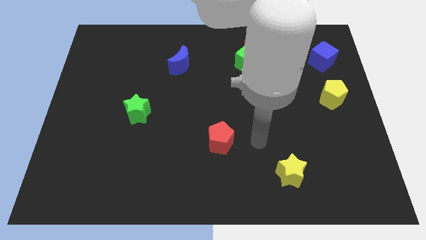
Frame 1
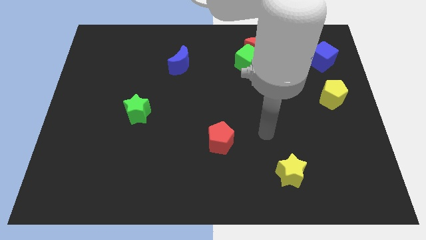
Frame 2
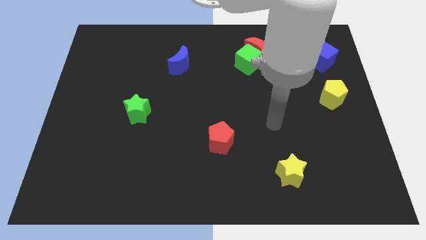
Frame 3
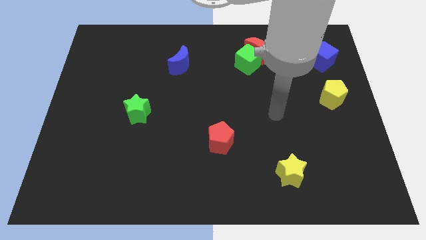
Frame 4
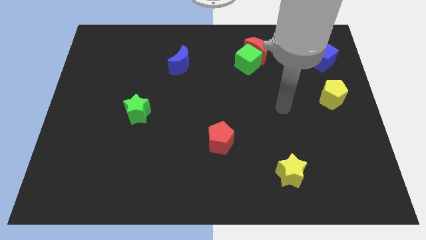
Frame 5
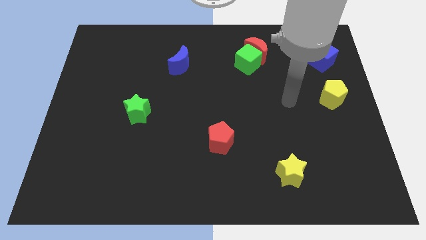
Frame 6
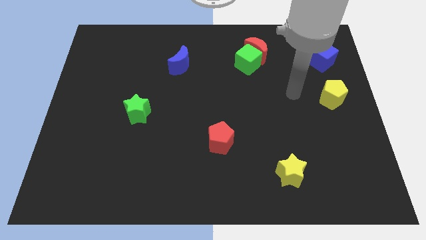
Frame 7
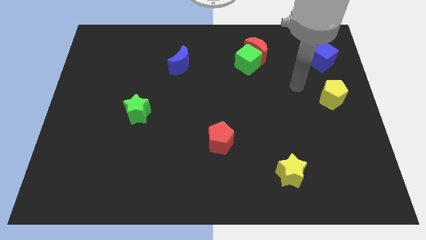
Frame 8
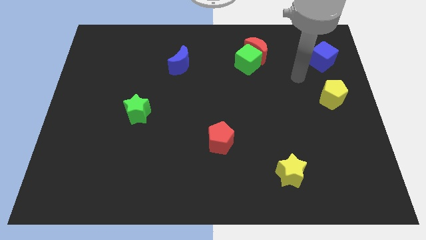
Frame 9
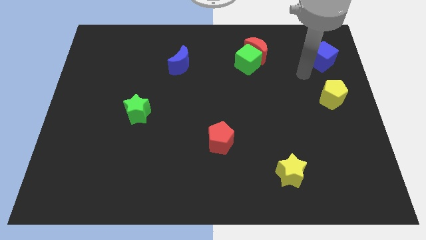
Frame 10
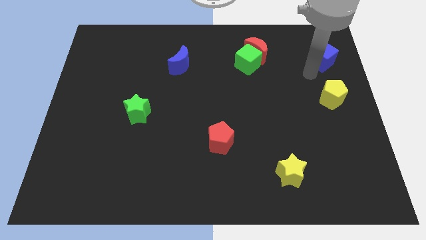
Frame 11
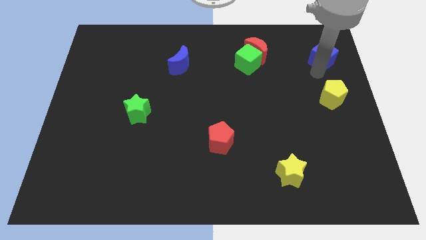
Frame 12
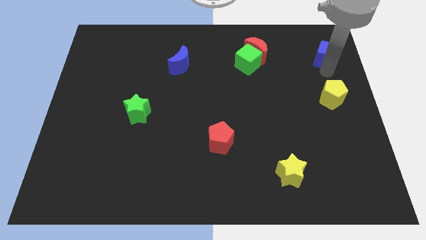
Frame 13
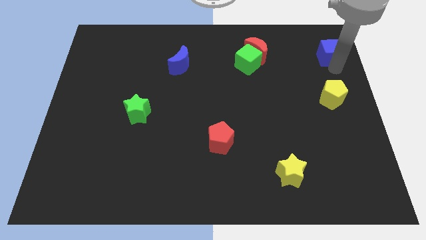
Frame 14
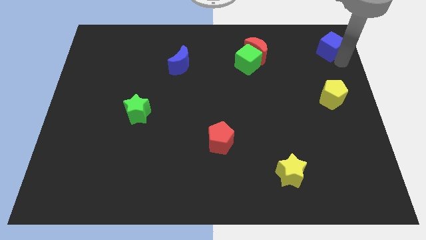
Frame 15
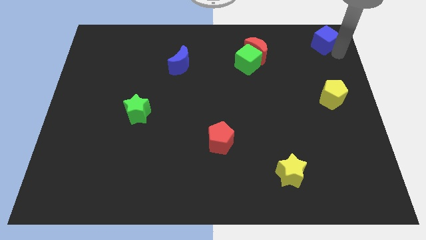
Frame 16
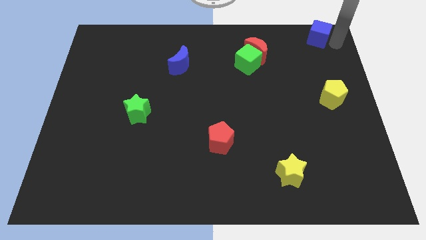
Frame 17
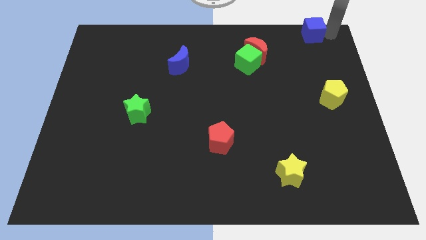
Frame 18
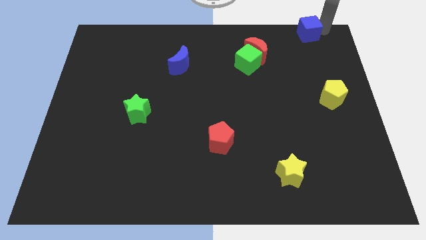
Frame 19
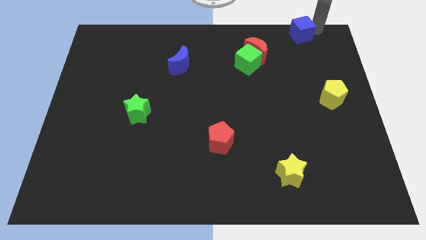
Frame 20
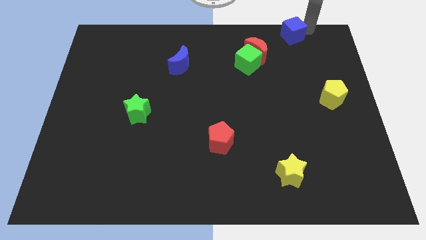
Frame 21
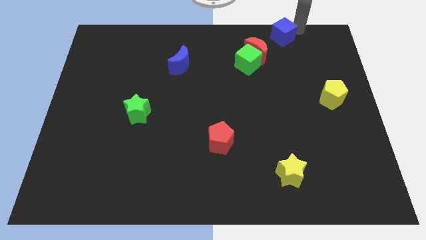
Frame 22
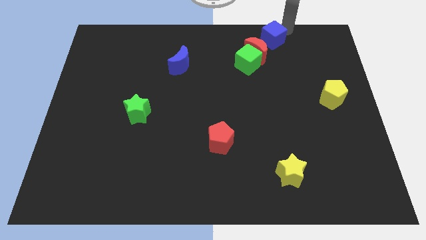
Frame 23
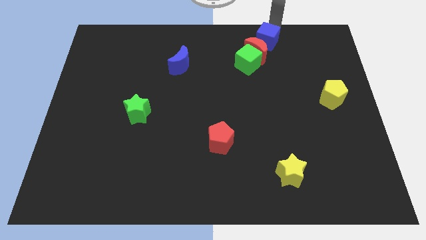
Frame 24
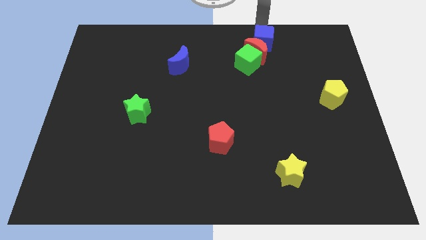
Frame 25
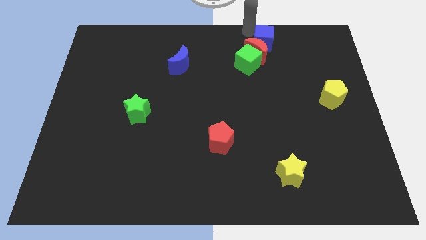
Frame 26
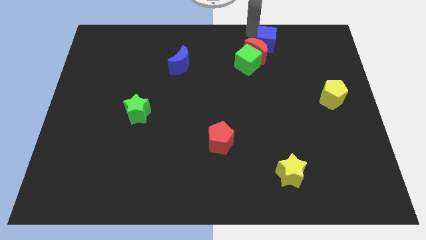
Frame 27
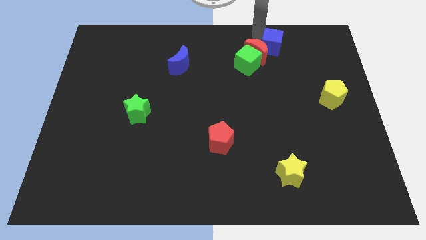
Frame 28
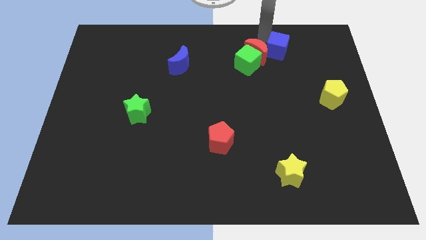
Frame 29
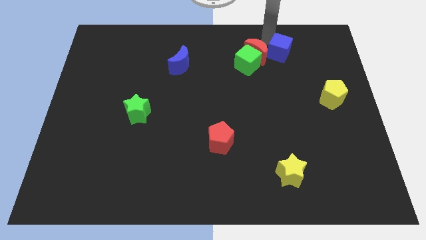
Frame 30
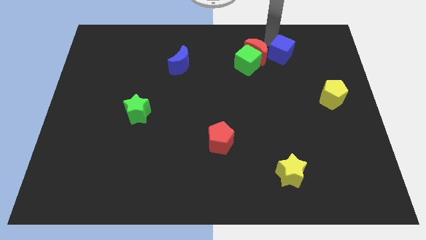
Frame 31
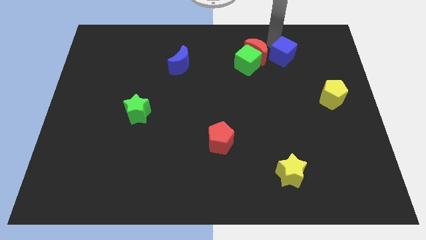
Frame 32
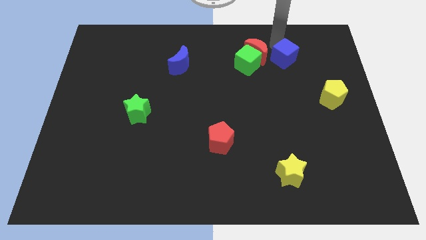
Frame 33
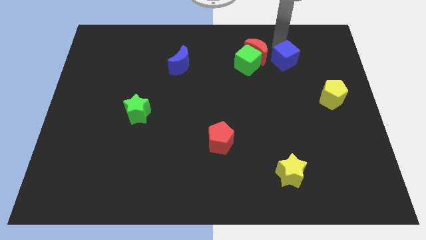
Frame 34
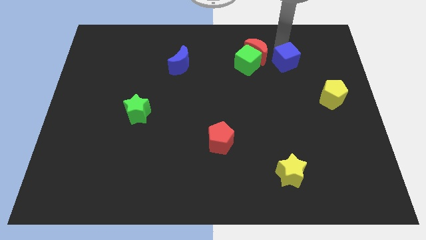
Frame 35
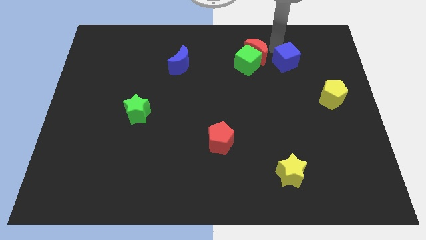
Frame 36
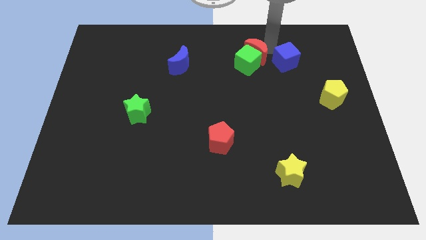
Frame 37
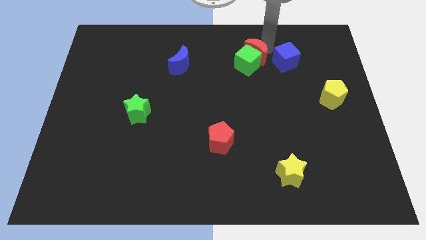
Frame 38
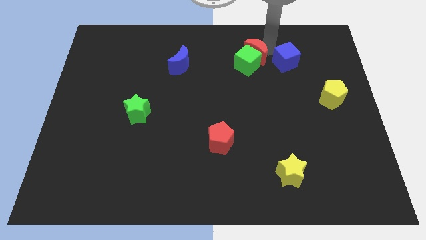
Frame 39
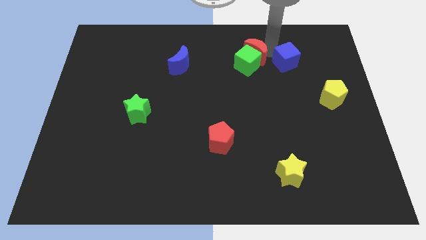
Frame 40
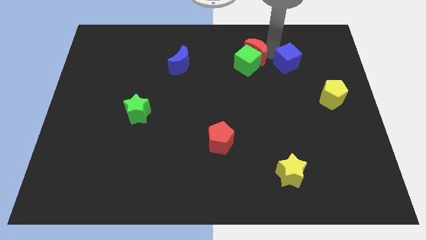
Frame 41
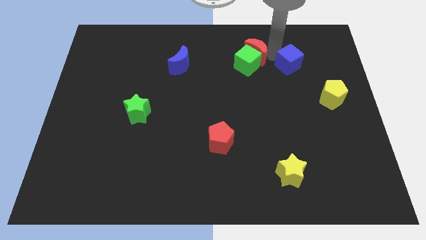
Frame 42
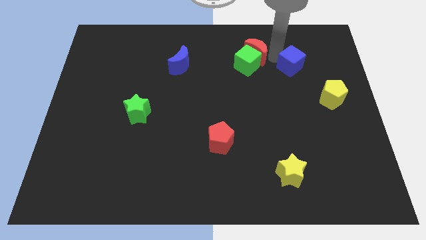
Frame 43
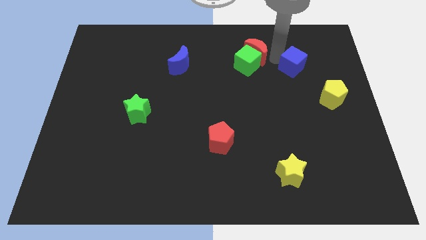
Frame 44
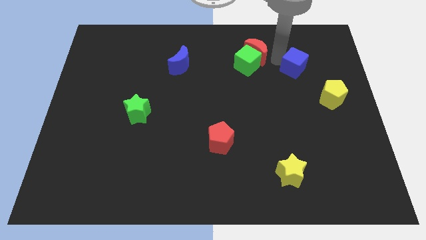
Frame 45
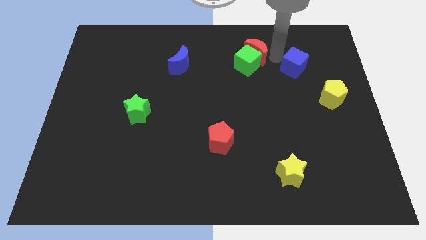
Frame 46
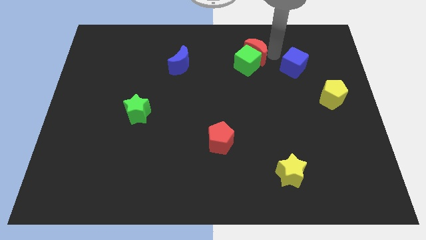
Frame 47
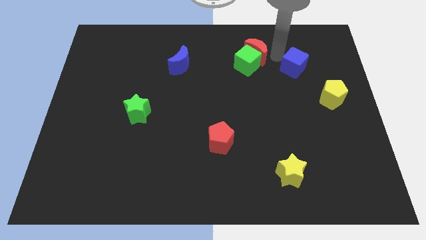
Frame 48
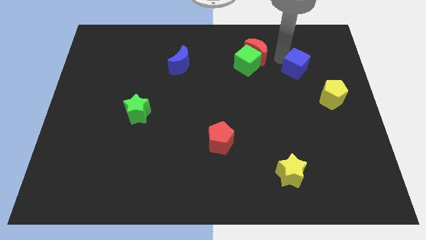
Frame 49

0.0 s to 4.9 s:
slightly move the blue cube diagonally downwards and left

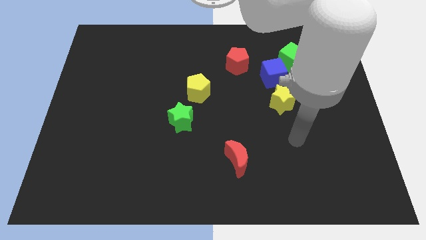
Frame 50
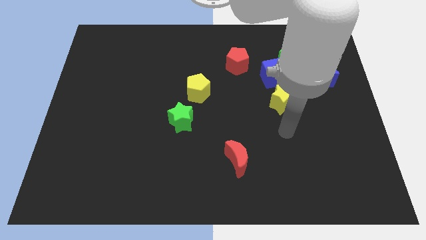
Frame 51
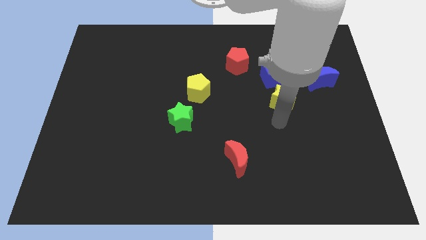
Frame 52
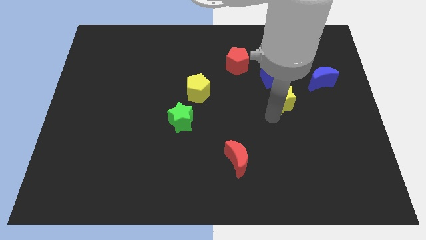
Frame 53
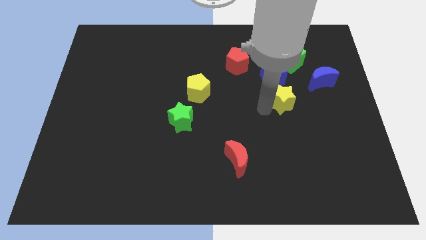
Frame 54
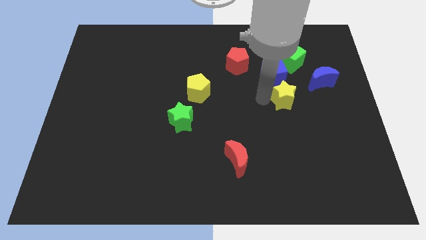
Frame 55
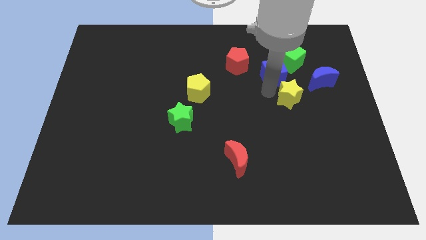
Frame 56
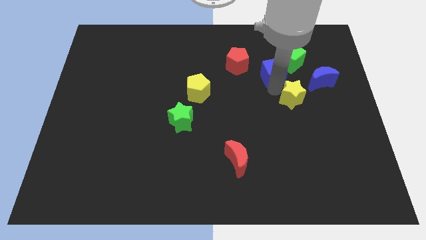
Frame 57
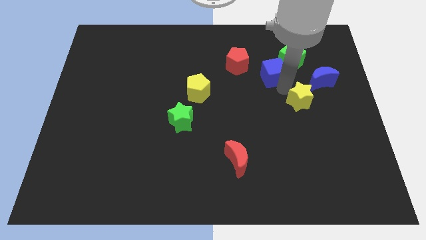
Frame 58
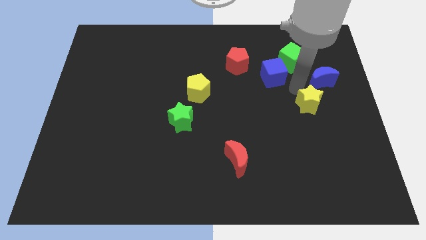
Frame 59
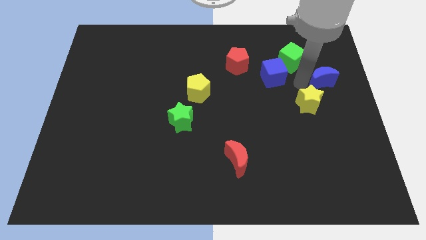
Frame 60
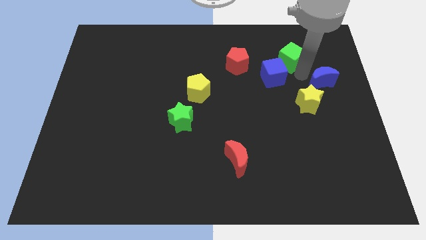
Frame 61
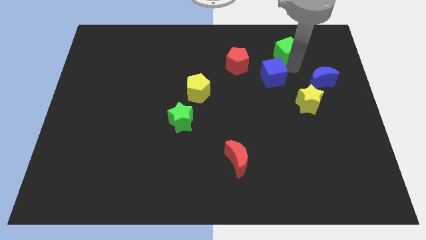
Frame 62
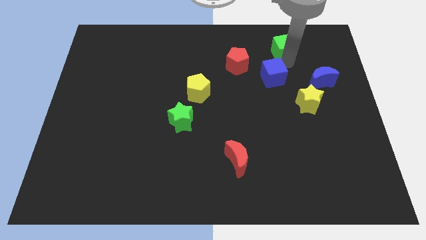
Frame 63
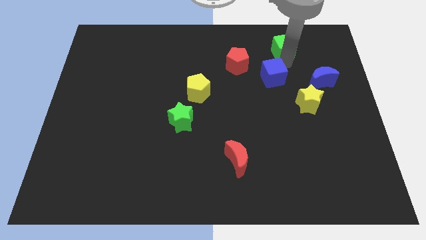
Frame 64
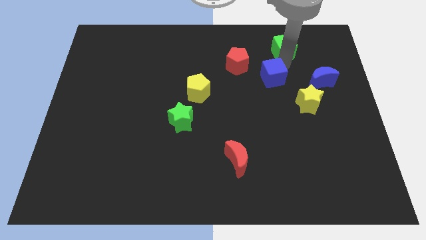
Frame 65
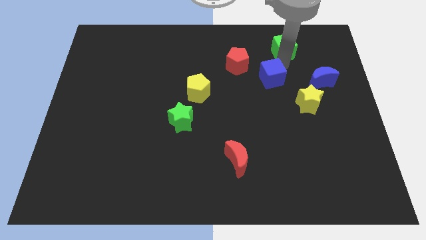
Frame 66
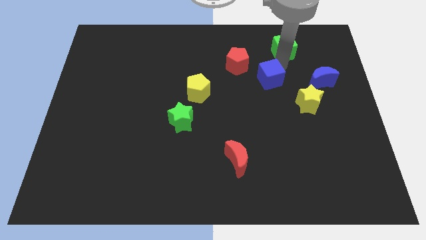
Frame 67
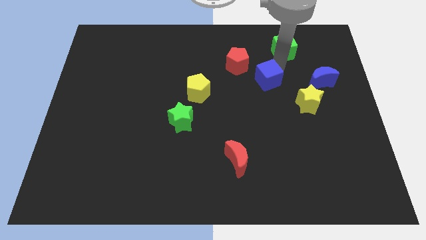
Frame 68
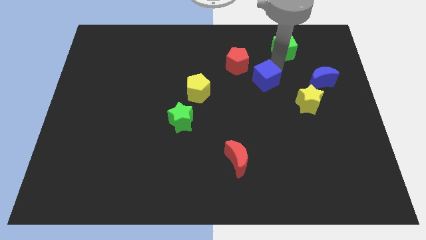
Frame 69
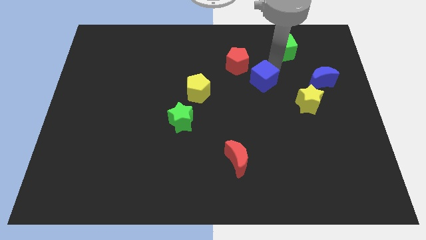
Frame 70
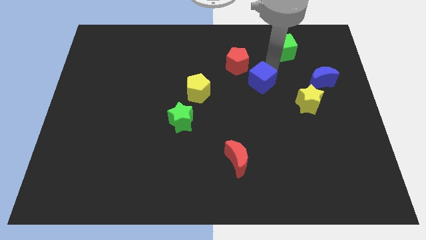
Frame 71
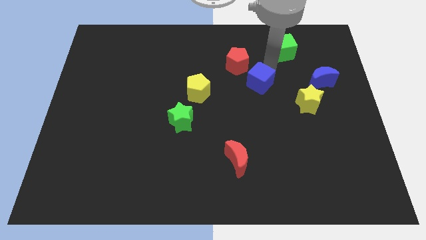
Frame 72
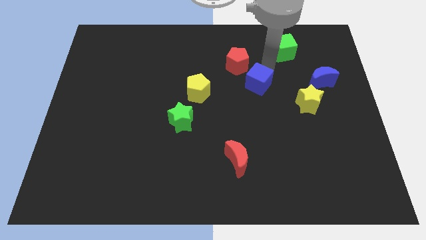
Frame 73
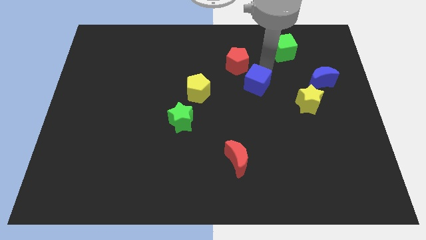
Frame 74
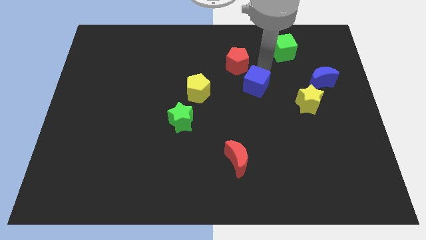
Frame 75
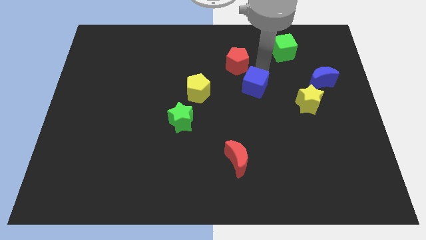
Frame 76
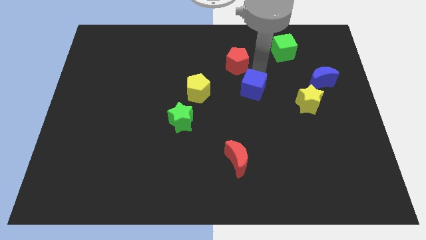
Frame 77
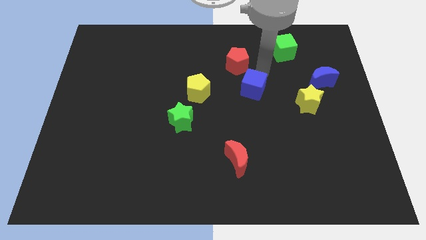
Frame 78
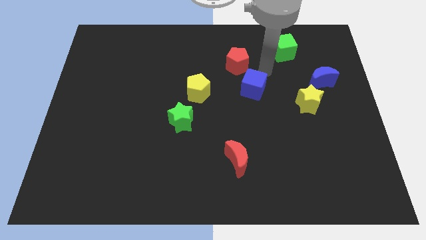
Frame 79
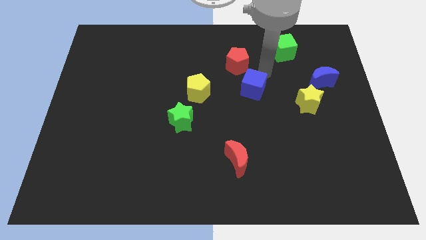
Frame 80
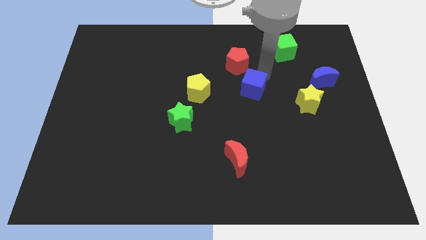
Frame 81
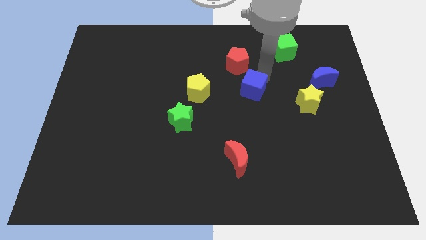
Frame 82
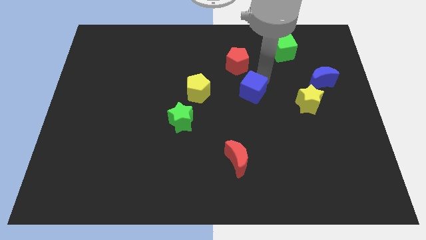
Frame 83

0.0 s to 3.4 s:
push the blue cube a bit diagonally down and left

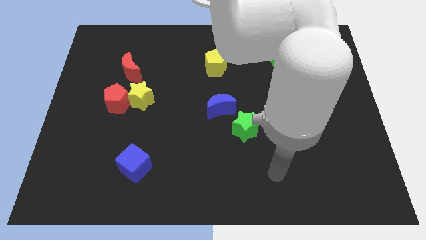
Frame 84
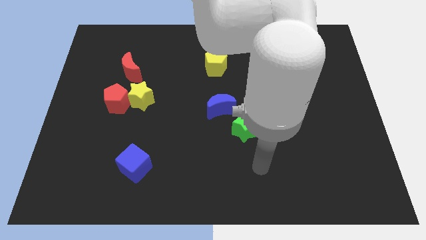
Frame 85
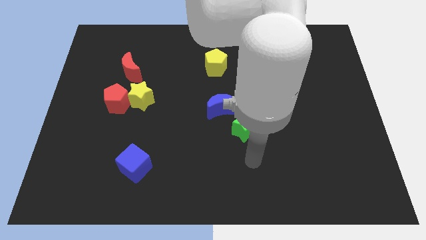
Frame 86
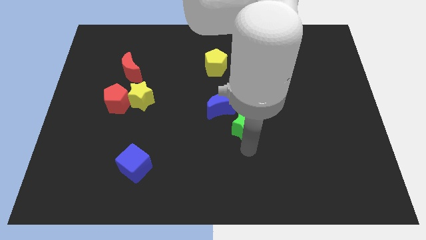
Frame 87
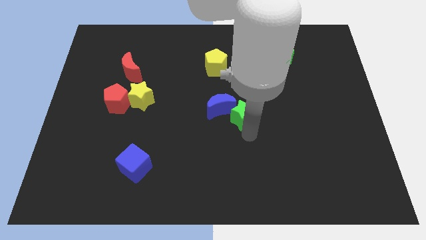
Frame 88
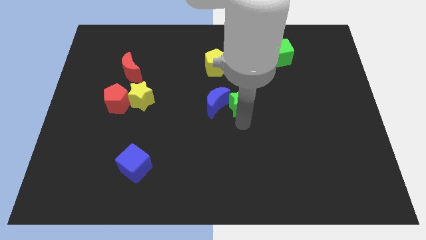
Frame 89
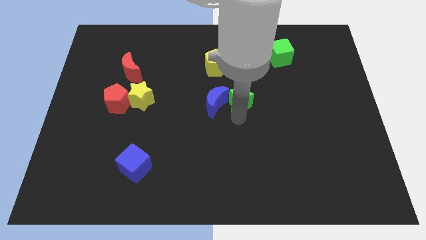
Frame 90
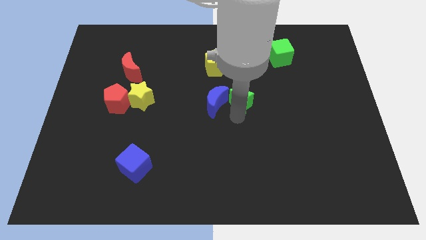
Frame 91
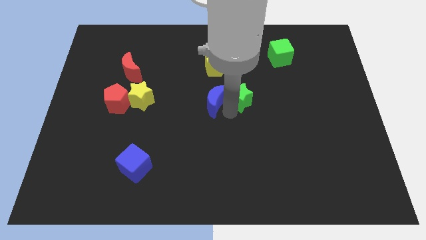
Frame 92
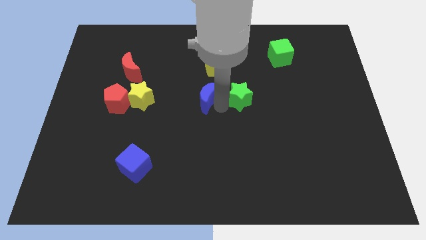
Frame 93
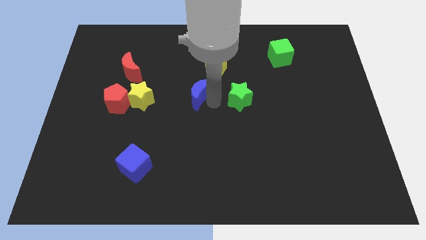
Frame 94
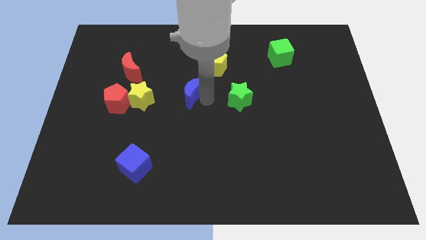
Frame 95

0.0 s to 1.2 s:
move the blue moon a little up and then to the left
